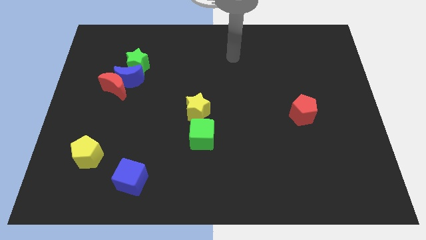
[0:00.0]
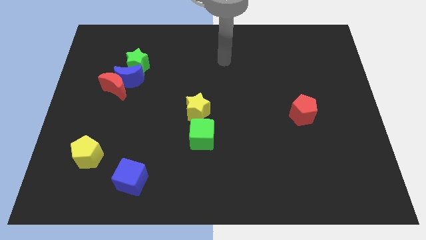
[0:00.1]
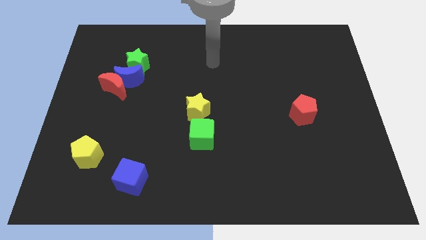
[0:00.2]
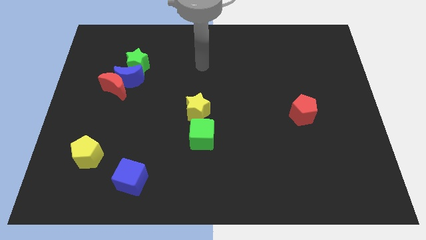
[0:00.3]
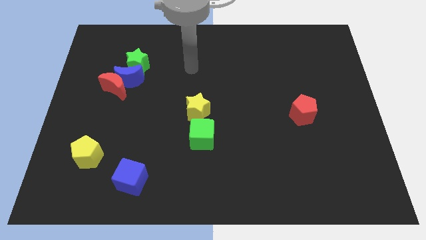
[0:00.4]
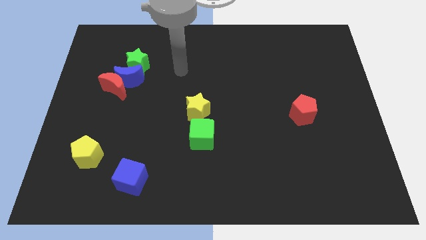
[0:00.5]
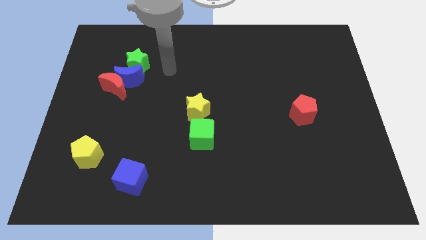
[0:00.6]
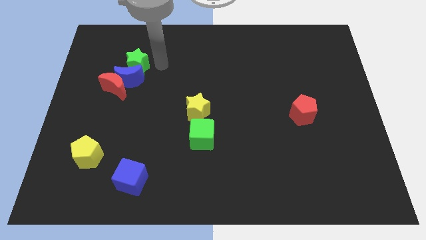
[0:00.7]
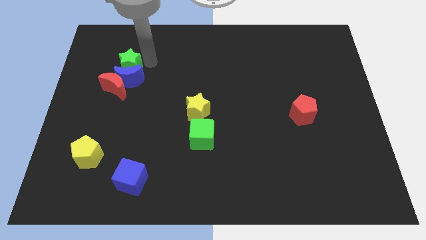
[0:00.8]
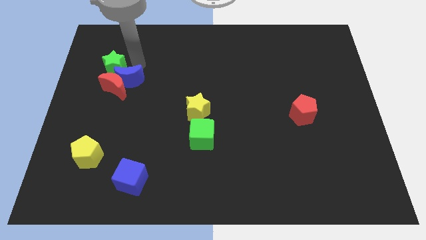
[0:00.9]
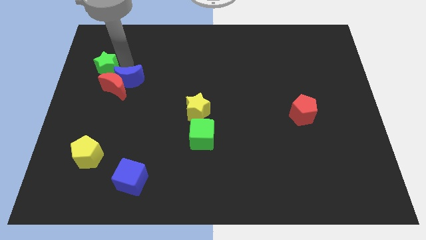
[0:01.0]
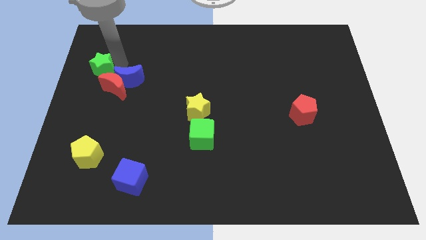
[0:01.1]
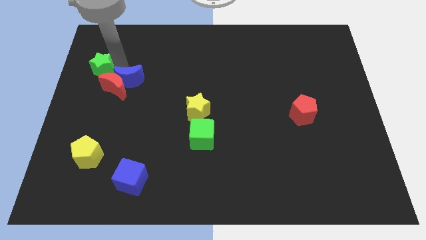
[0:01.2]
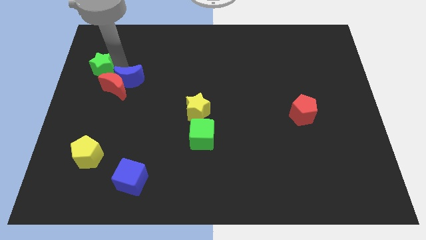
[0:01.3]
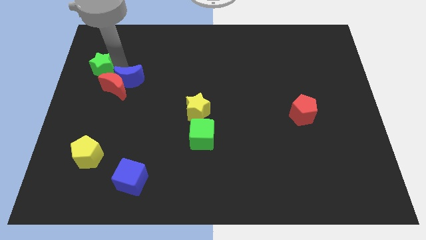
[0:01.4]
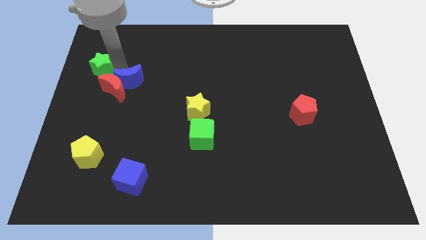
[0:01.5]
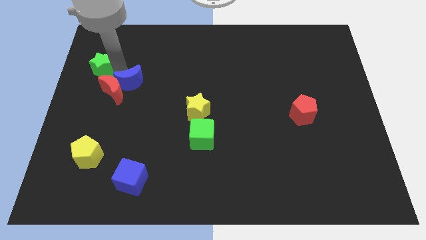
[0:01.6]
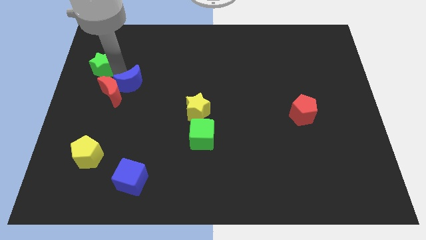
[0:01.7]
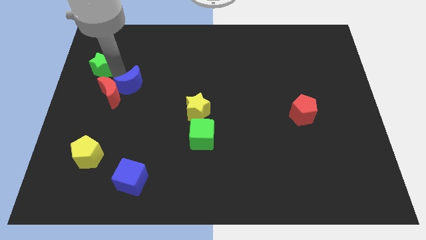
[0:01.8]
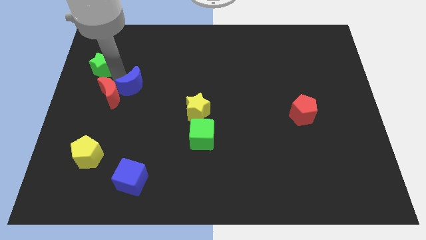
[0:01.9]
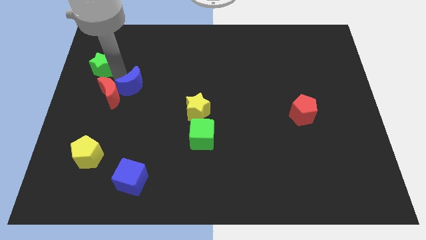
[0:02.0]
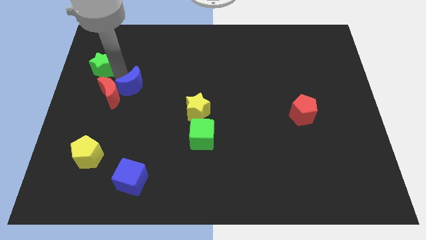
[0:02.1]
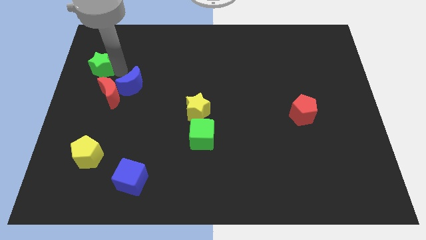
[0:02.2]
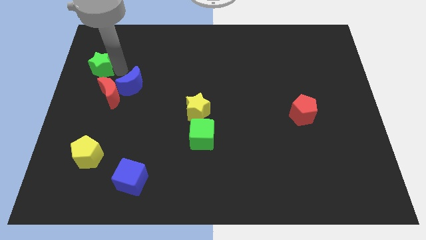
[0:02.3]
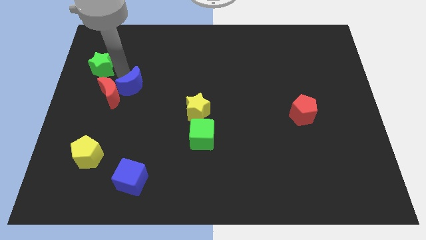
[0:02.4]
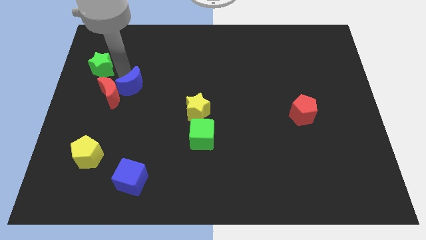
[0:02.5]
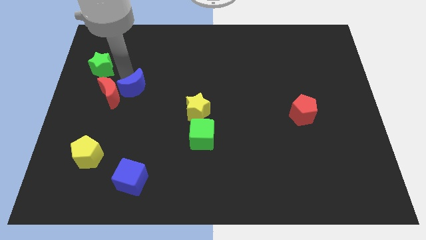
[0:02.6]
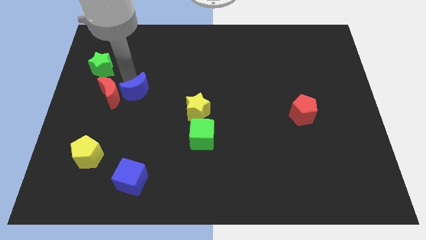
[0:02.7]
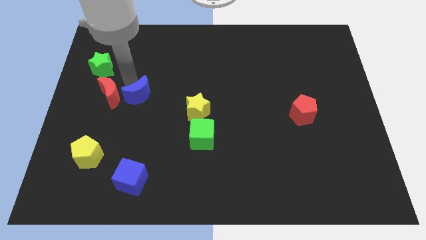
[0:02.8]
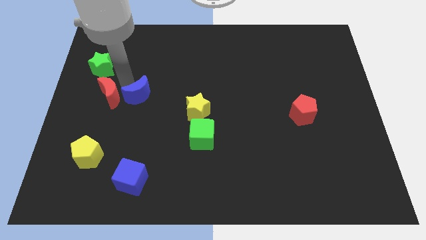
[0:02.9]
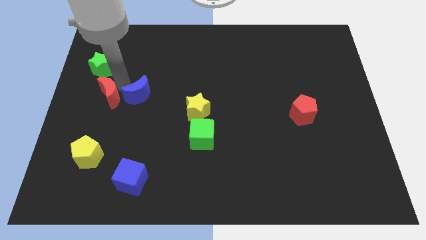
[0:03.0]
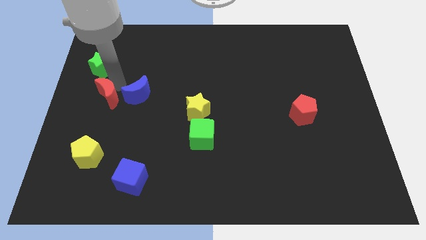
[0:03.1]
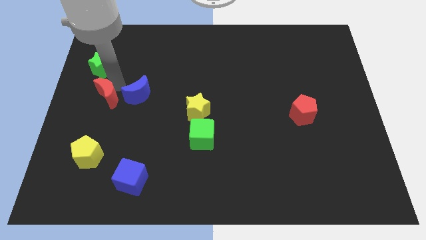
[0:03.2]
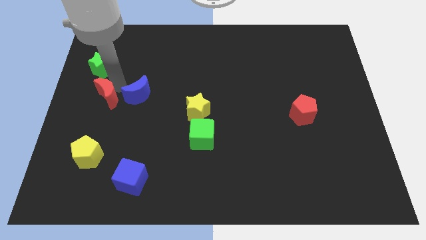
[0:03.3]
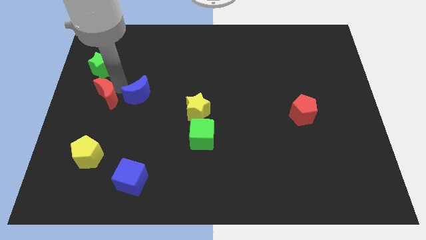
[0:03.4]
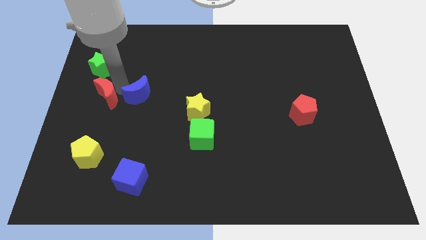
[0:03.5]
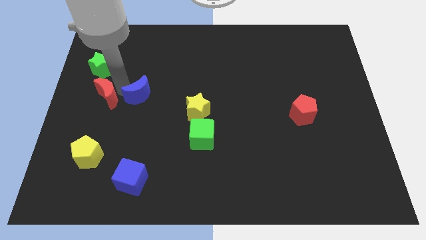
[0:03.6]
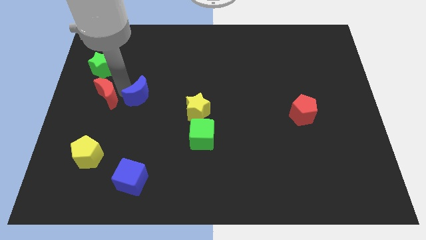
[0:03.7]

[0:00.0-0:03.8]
separate the blue moon from the red moon and green star

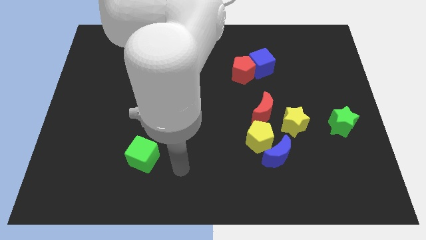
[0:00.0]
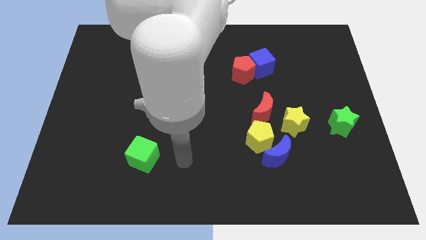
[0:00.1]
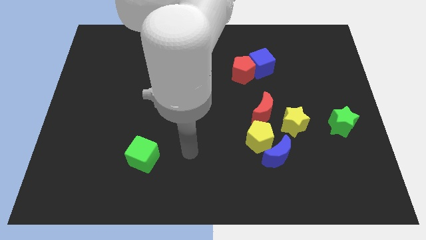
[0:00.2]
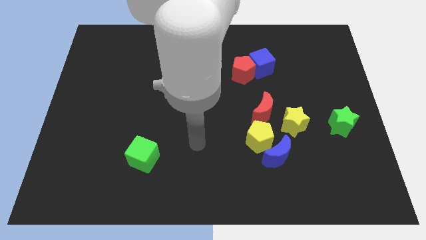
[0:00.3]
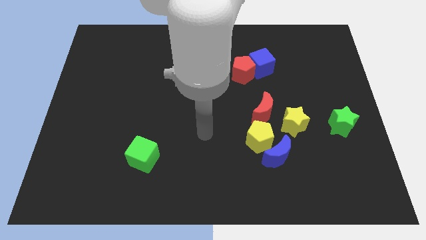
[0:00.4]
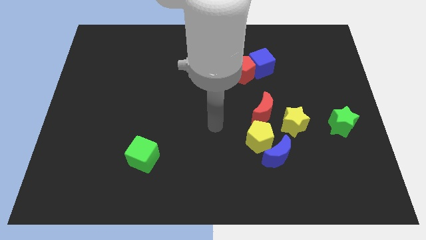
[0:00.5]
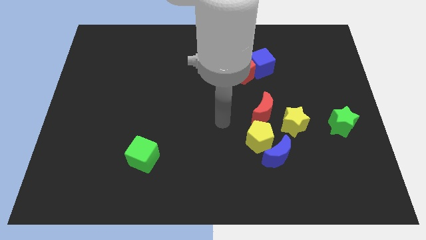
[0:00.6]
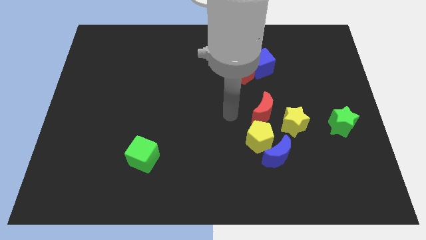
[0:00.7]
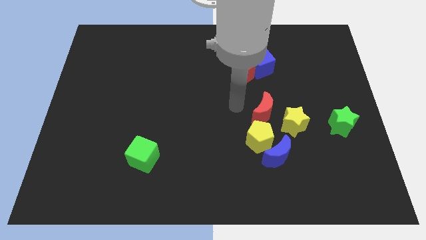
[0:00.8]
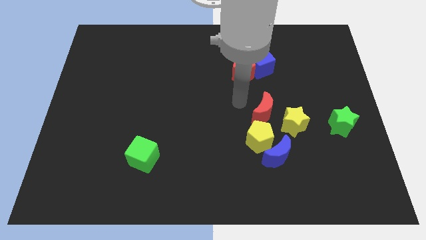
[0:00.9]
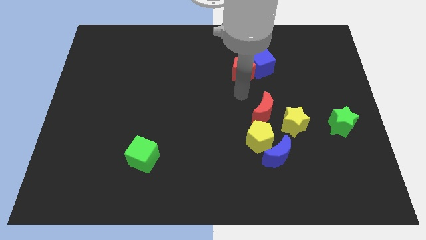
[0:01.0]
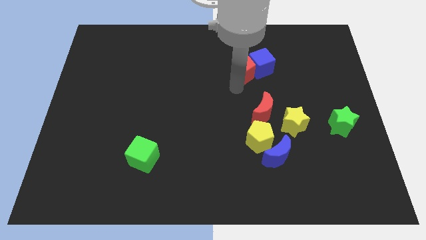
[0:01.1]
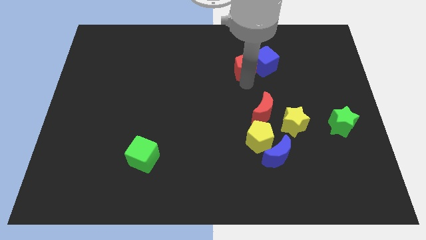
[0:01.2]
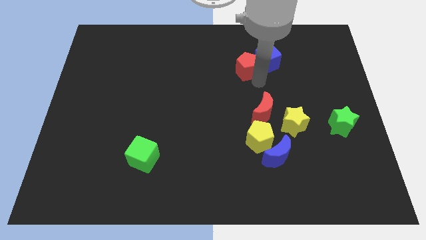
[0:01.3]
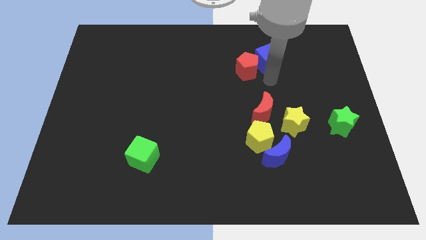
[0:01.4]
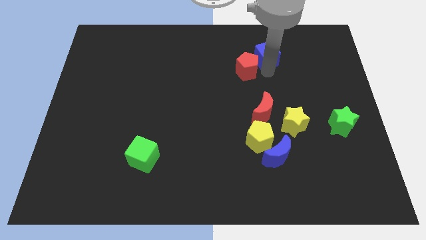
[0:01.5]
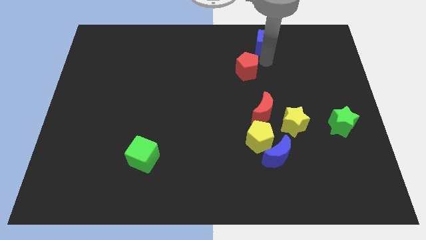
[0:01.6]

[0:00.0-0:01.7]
move the red pentagon away from the blue cube

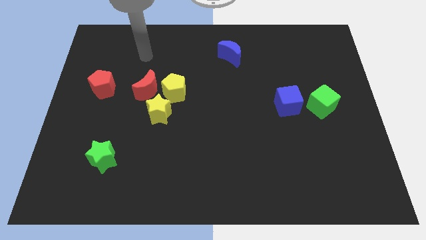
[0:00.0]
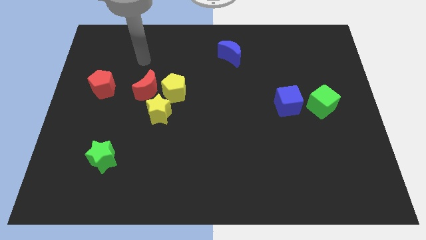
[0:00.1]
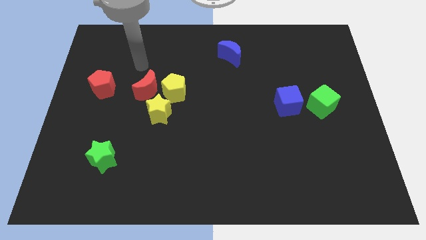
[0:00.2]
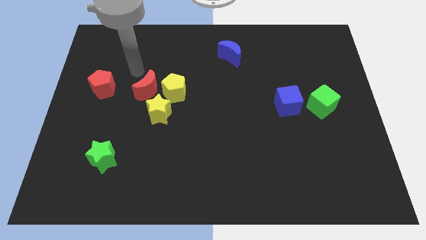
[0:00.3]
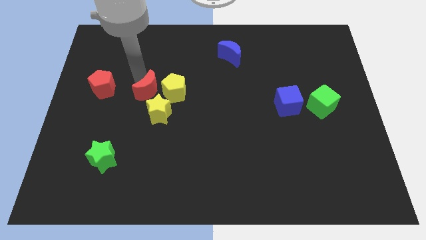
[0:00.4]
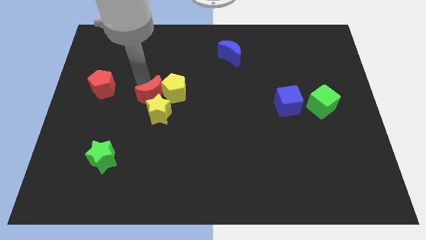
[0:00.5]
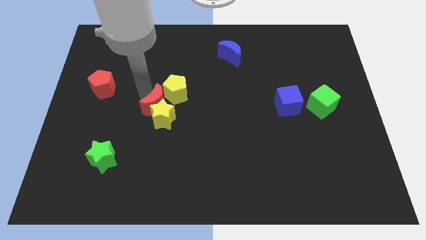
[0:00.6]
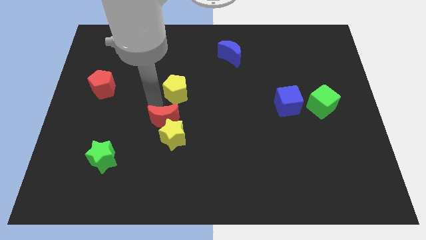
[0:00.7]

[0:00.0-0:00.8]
separate the yellow pentagon from the red moon and yellow star

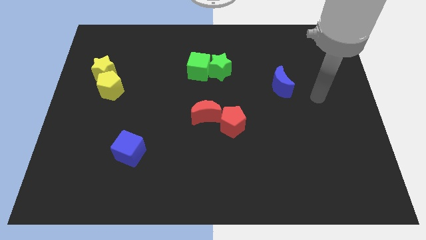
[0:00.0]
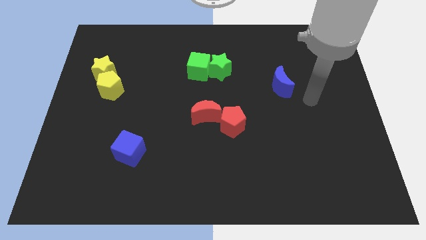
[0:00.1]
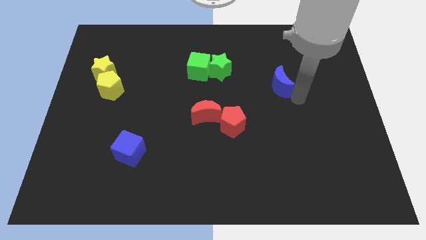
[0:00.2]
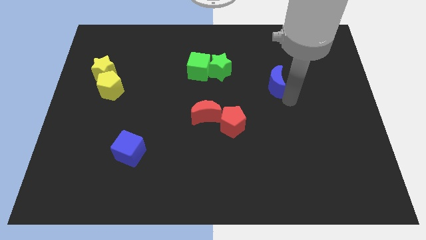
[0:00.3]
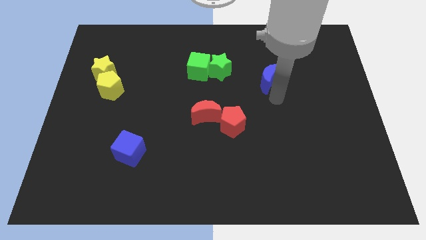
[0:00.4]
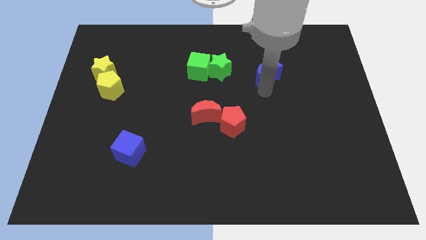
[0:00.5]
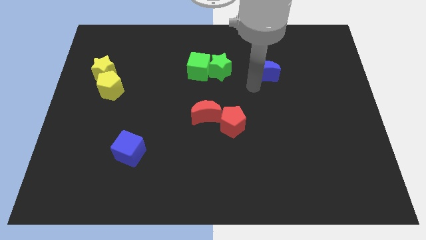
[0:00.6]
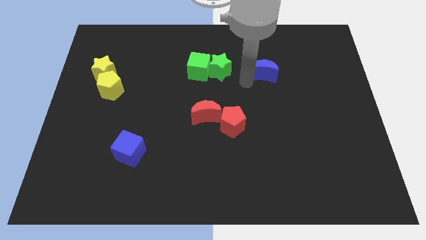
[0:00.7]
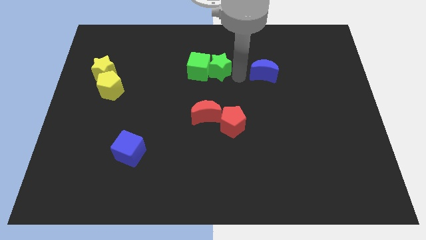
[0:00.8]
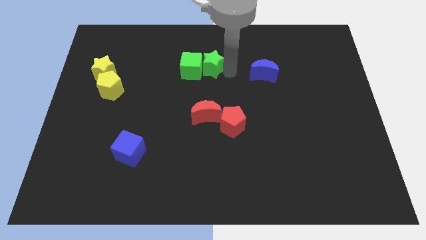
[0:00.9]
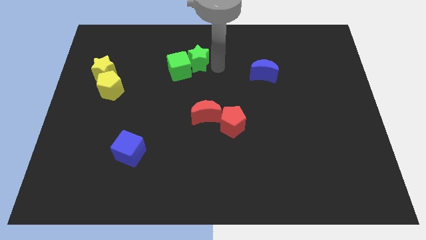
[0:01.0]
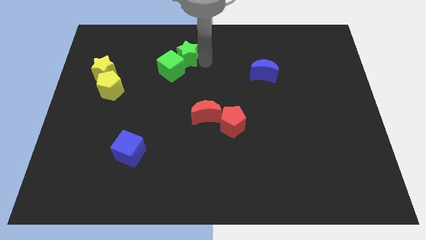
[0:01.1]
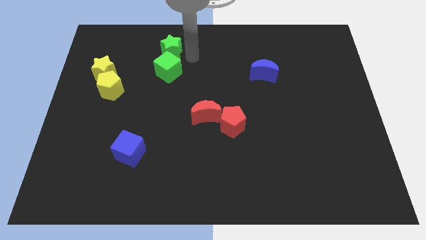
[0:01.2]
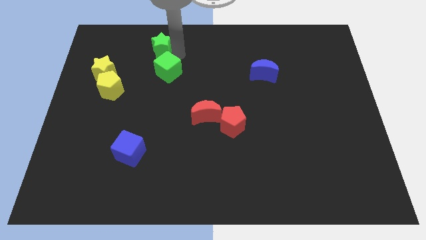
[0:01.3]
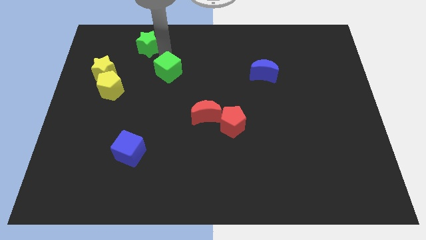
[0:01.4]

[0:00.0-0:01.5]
separate the green cube from the green star

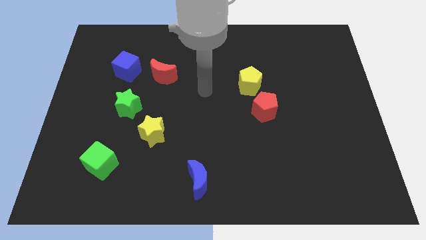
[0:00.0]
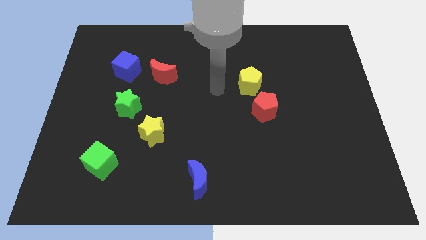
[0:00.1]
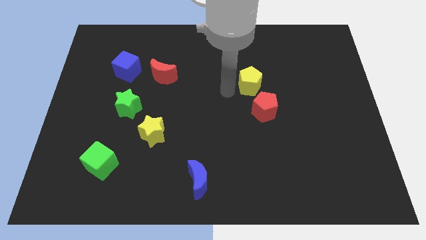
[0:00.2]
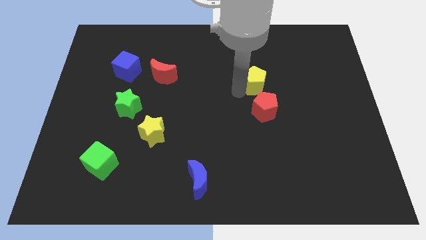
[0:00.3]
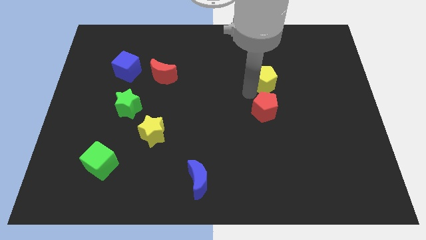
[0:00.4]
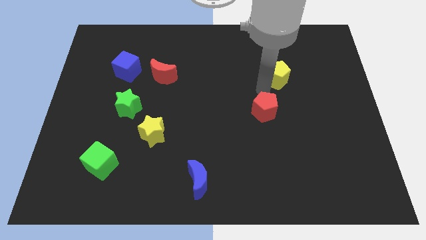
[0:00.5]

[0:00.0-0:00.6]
pull the red pentagon apart from the yellow pentagon

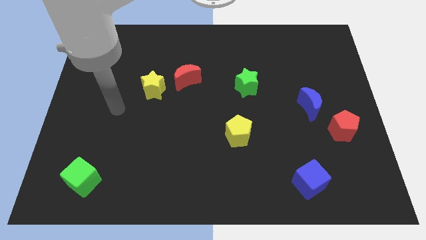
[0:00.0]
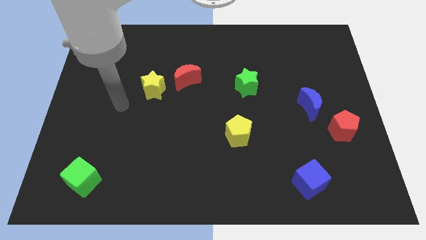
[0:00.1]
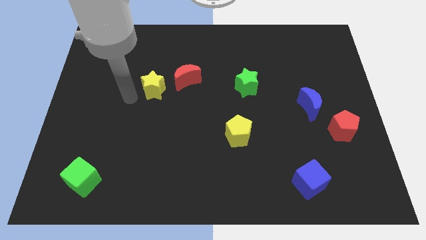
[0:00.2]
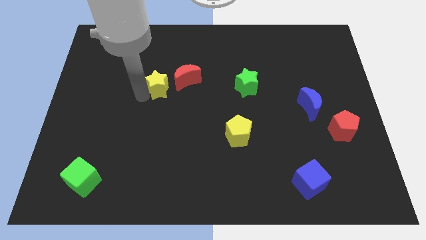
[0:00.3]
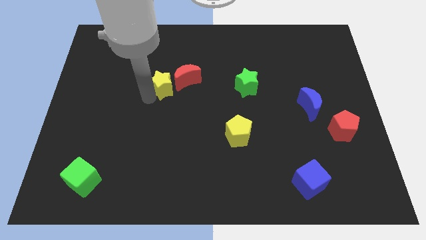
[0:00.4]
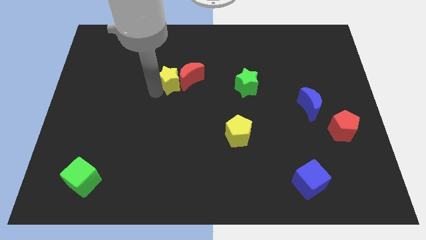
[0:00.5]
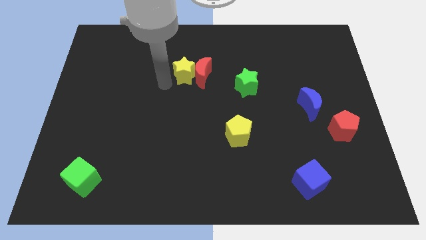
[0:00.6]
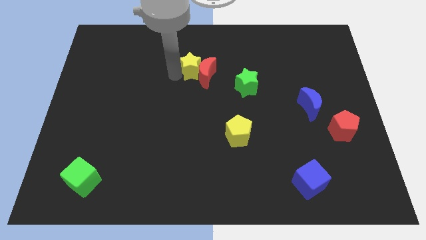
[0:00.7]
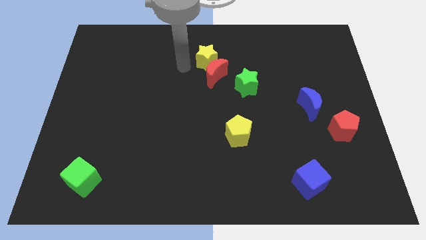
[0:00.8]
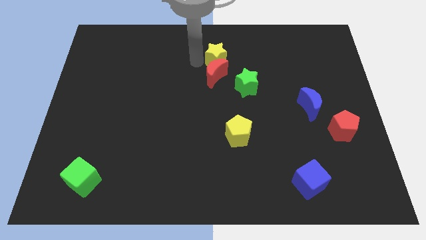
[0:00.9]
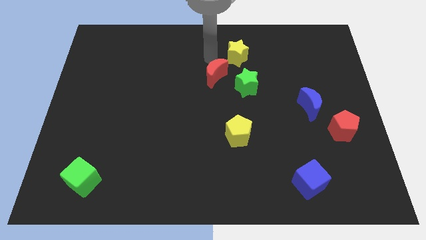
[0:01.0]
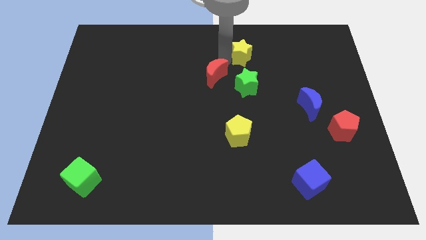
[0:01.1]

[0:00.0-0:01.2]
separate the red moon from the yellow star
